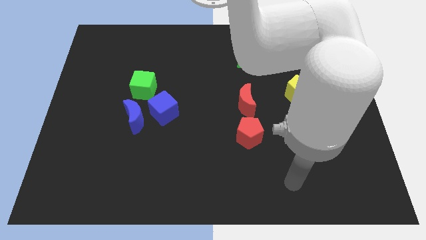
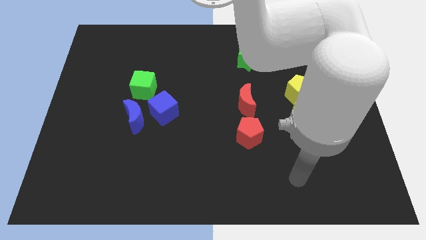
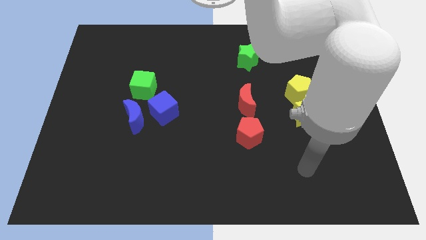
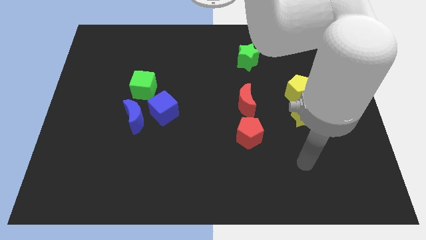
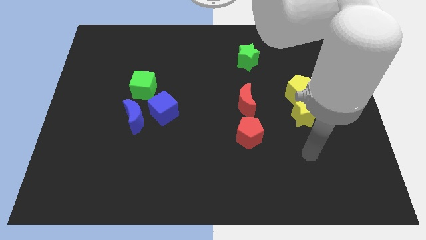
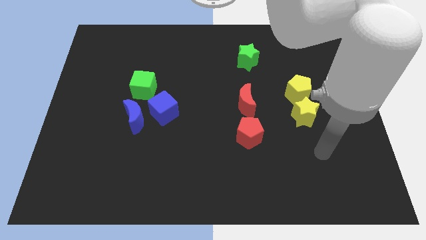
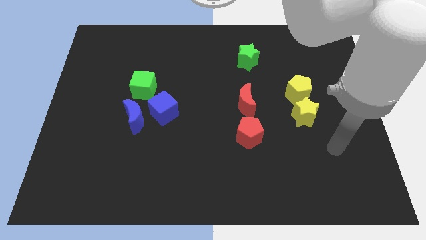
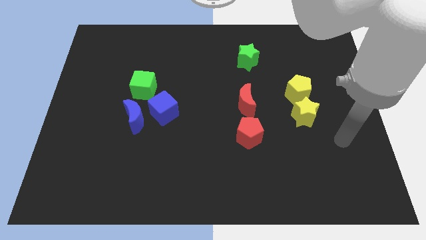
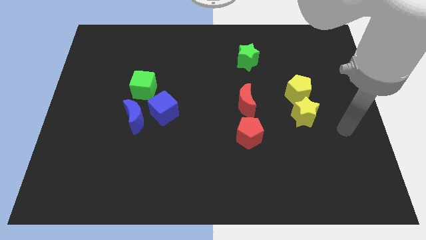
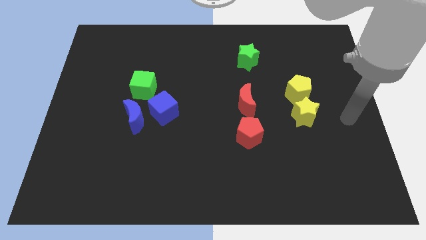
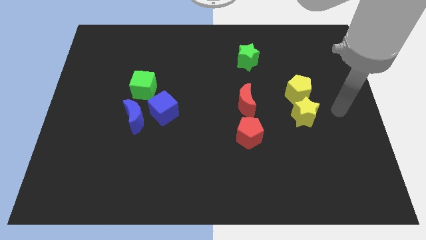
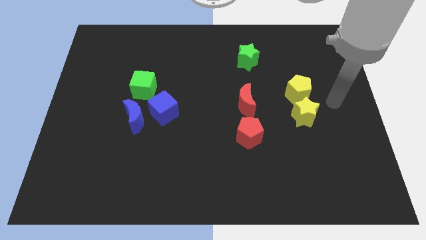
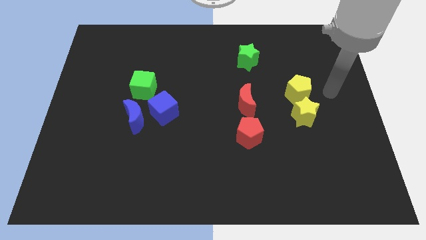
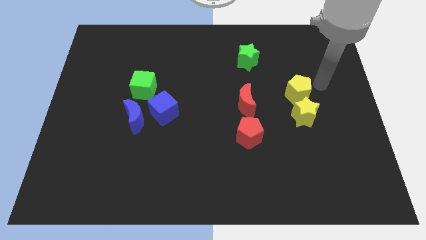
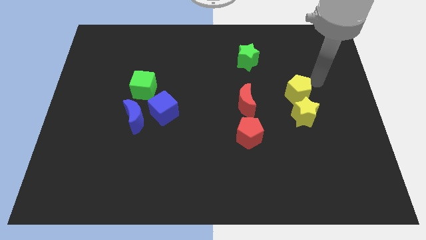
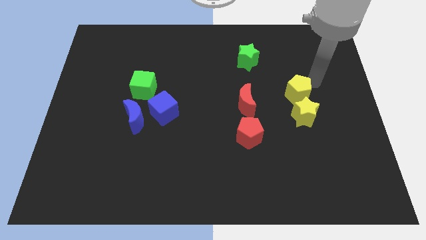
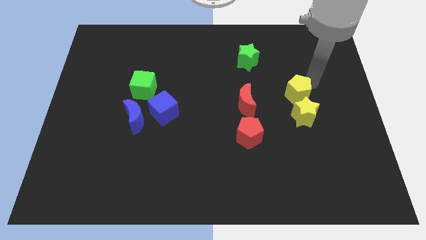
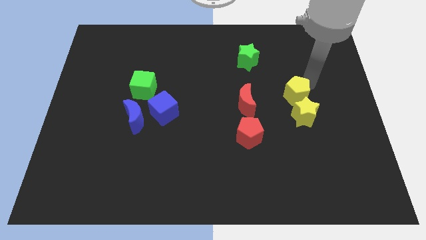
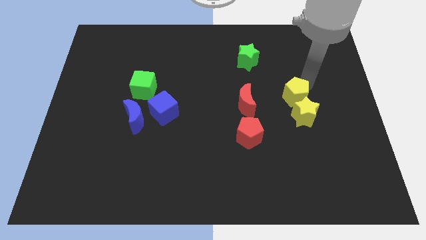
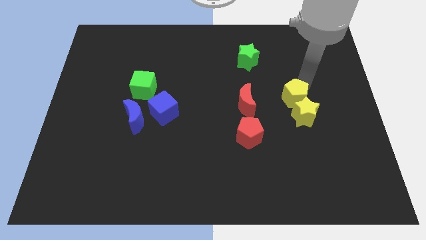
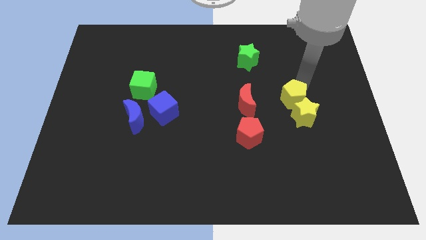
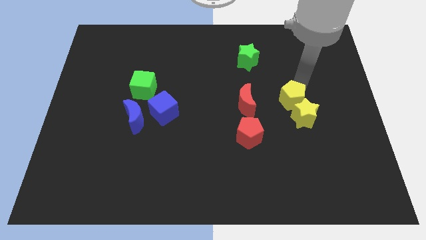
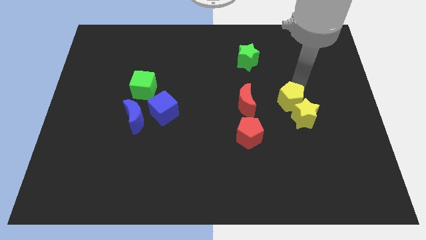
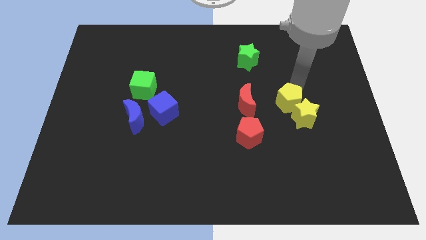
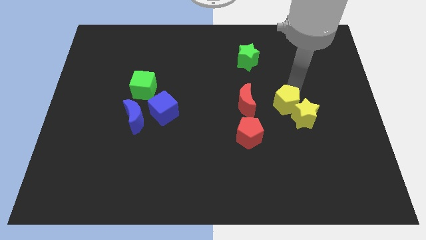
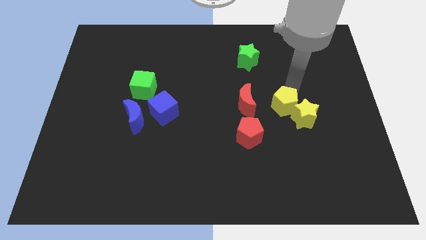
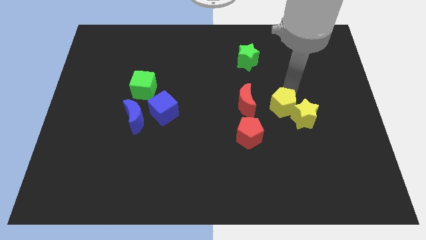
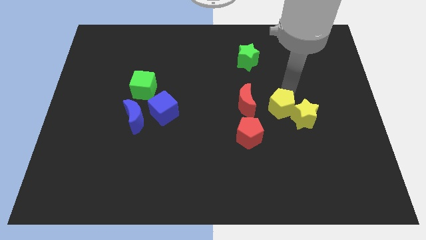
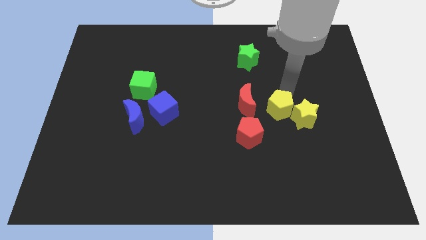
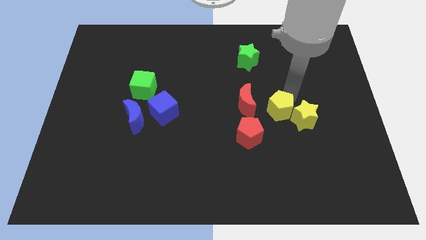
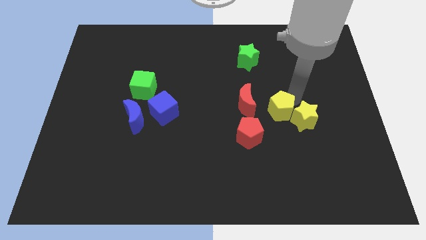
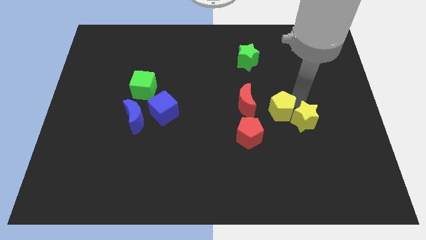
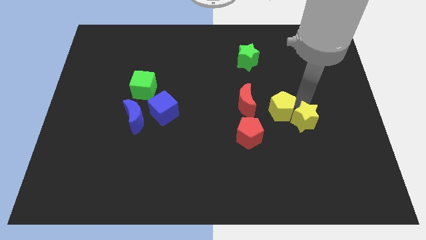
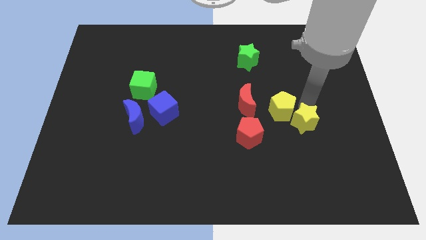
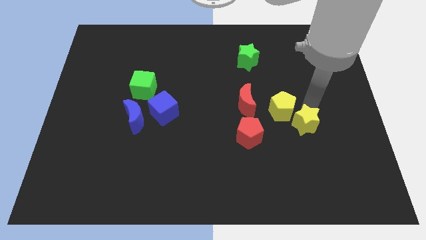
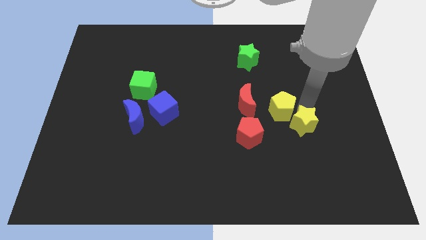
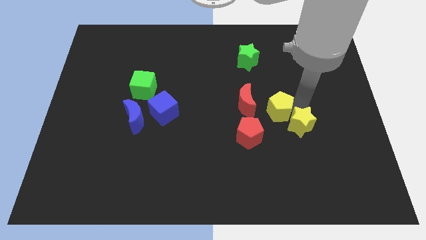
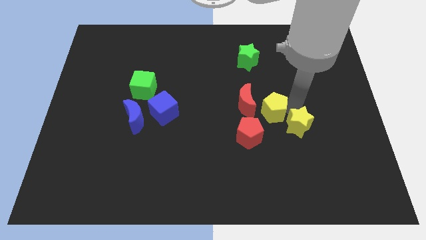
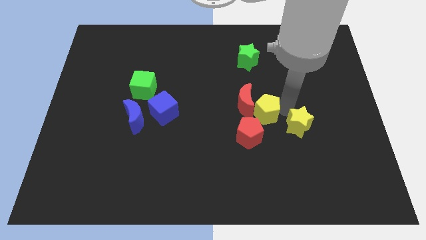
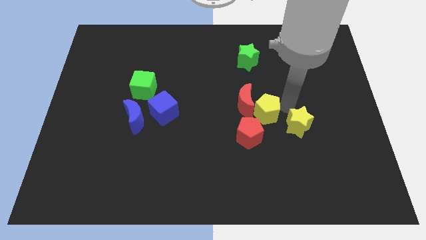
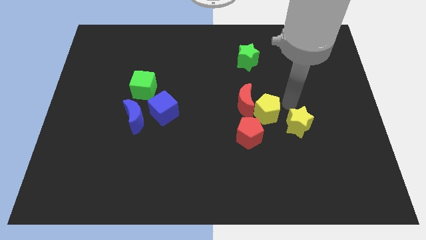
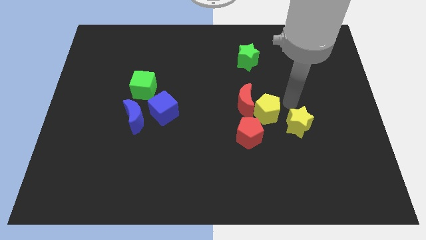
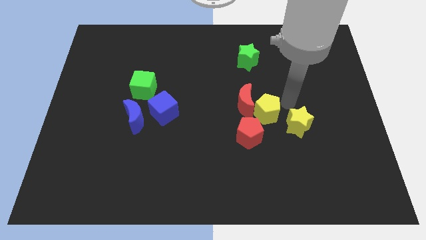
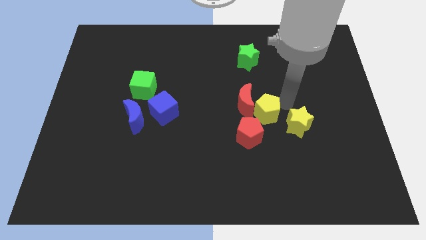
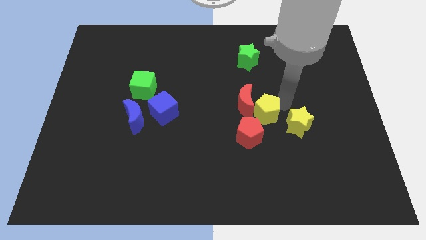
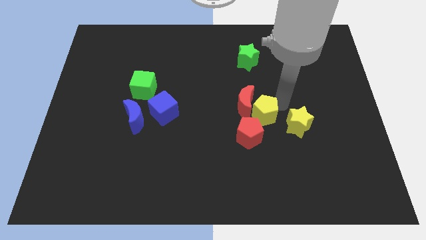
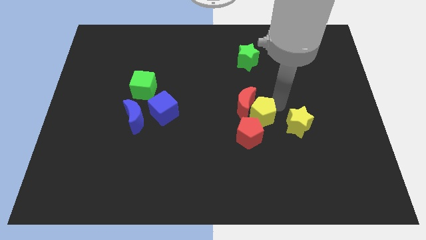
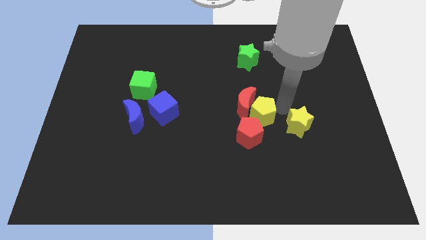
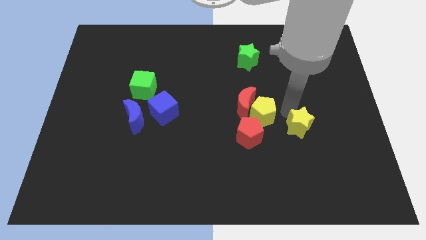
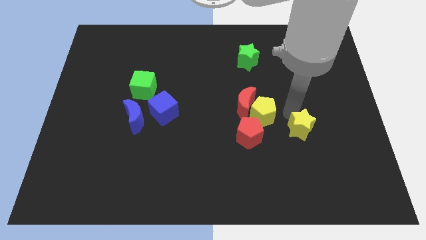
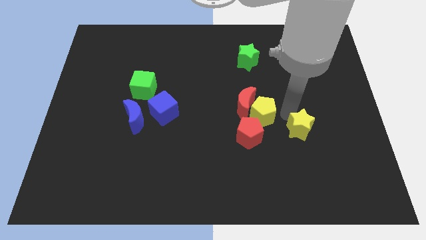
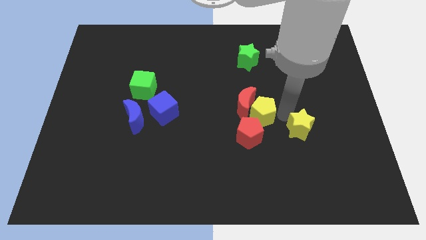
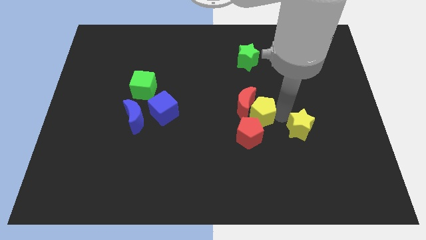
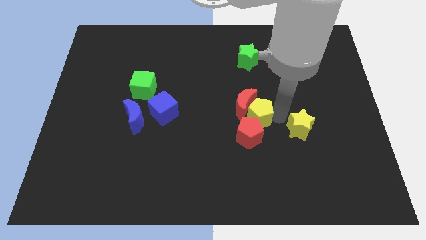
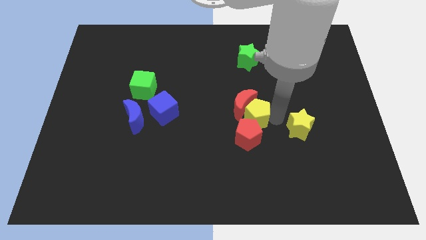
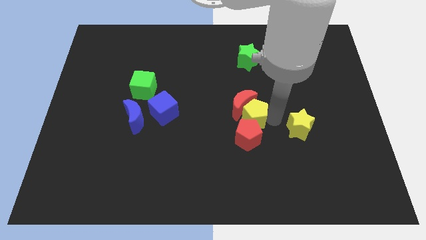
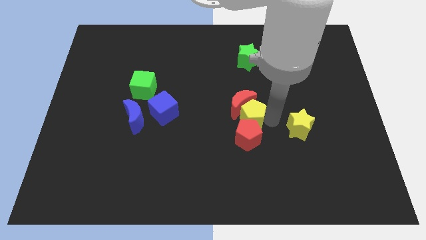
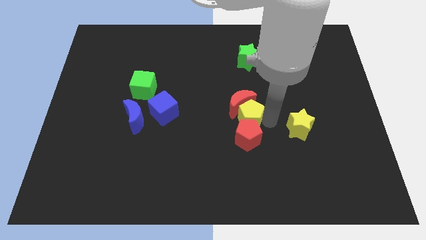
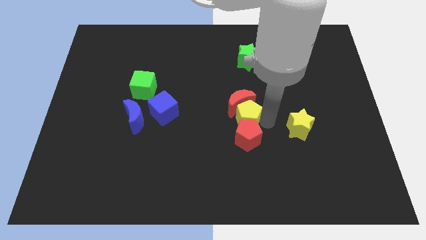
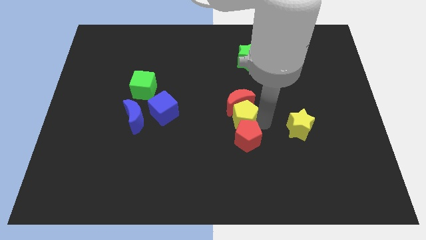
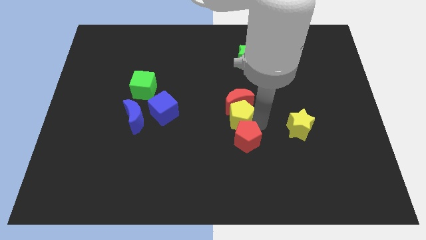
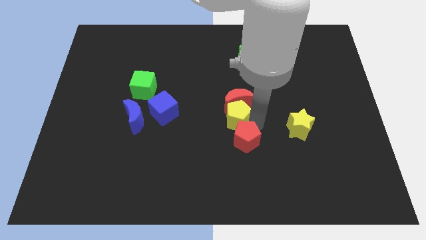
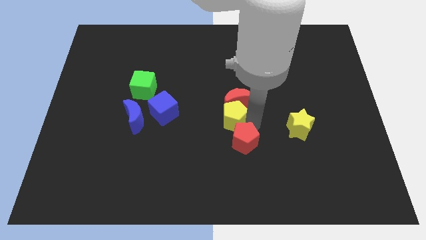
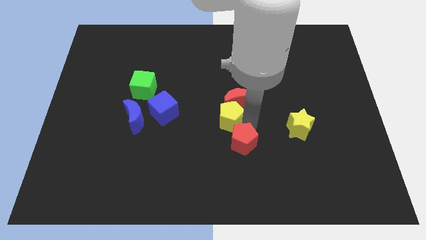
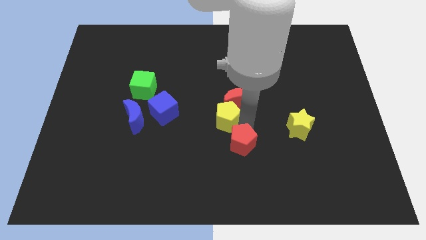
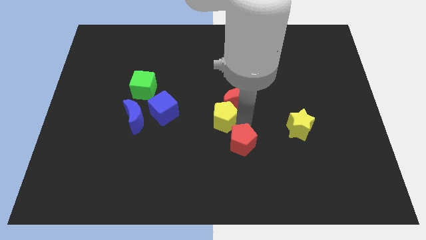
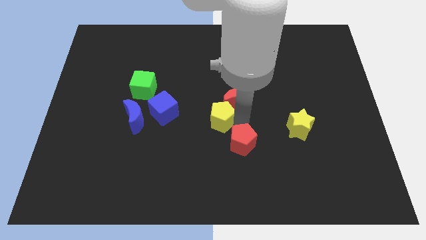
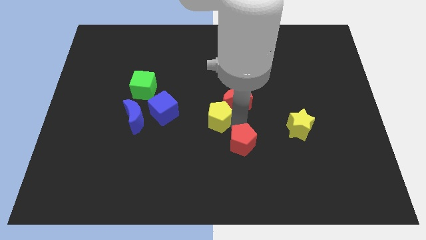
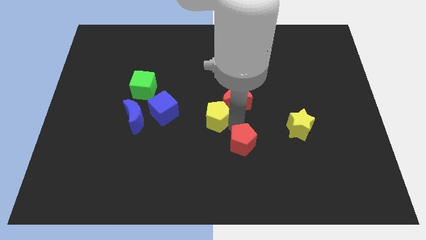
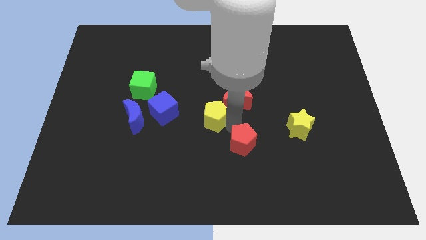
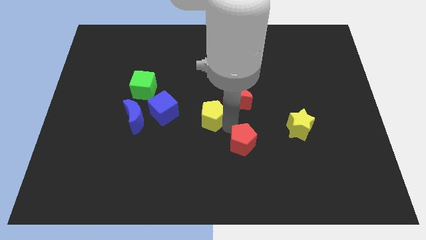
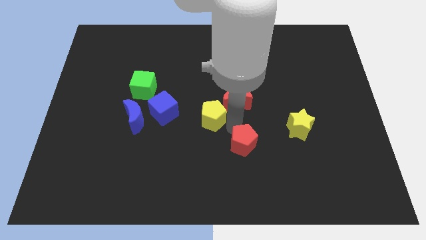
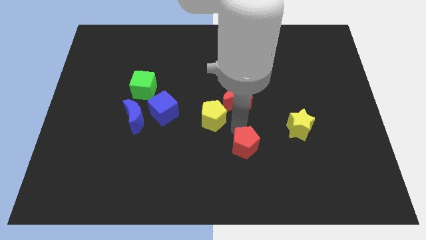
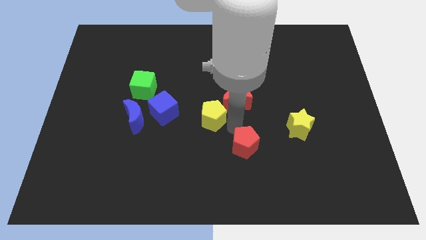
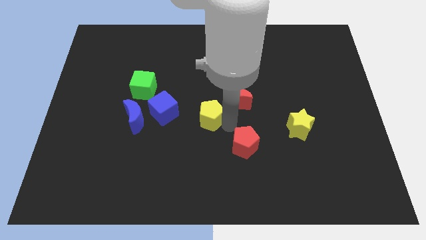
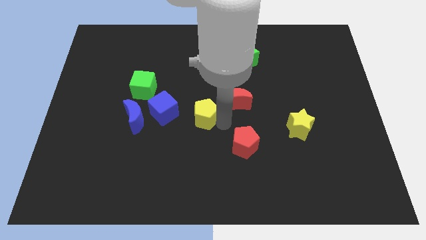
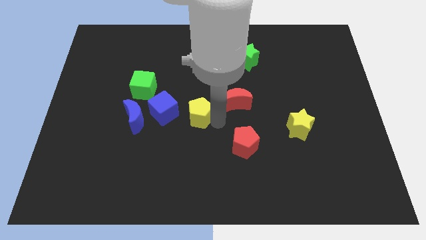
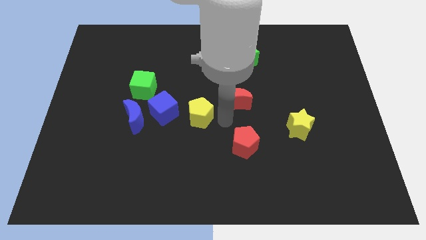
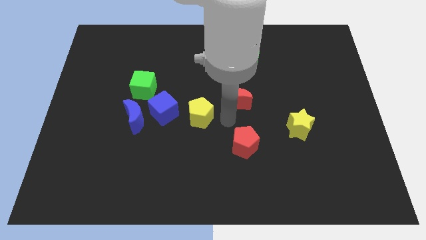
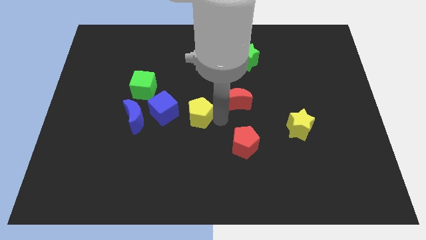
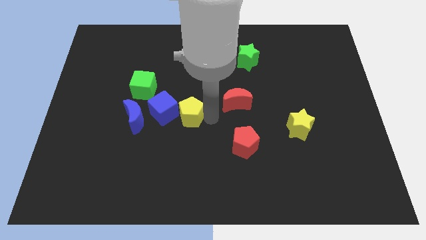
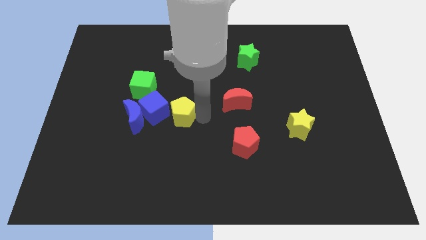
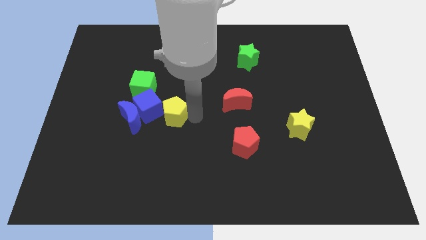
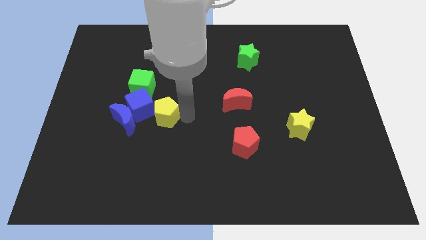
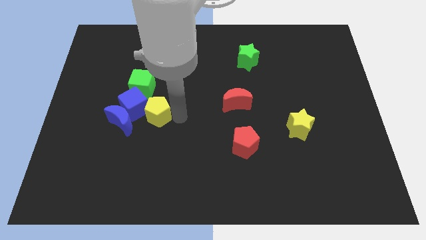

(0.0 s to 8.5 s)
put the yellow pentagon close to the blue cube
